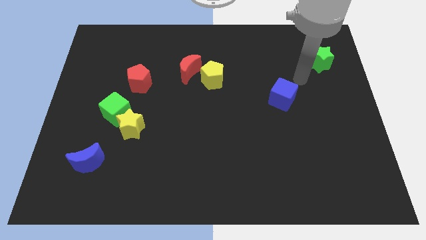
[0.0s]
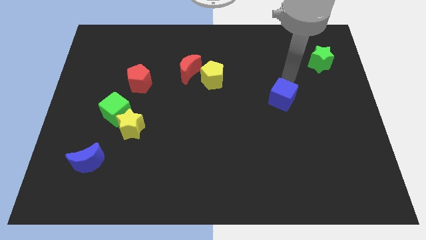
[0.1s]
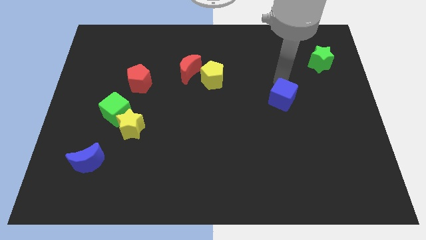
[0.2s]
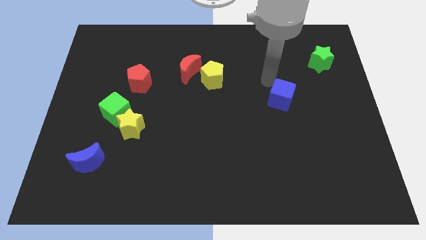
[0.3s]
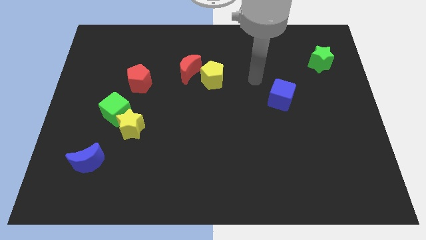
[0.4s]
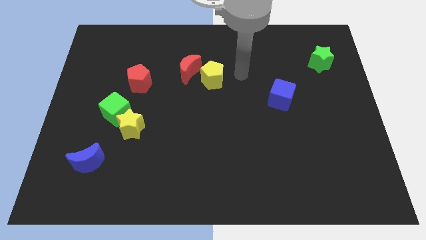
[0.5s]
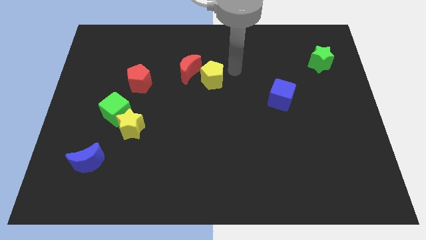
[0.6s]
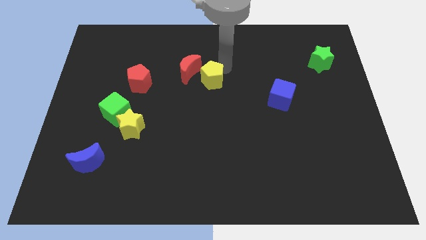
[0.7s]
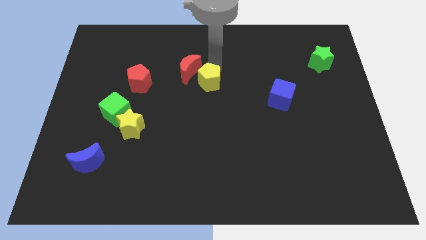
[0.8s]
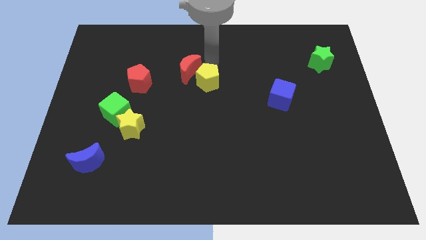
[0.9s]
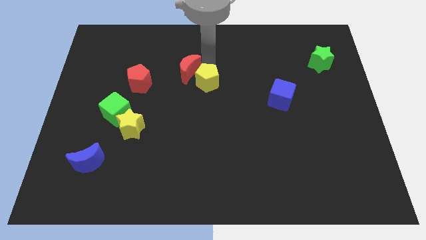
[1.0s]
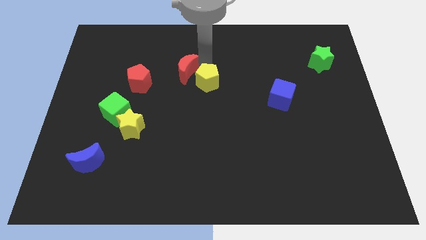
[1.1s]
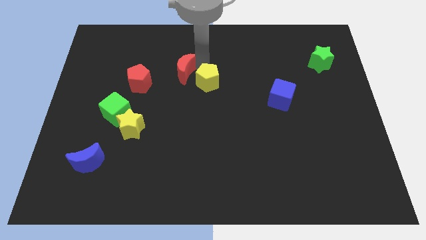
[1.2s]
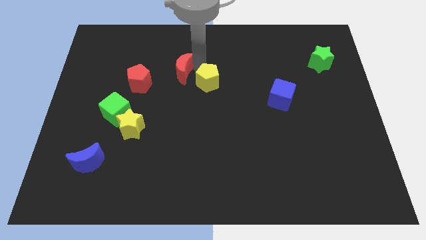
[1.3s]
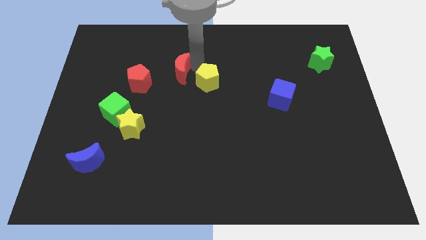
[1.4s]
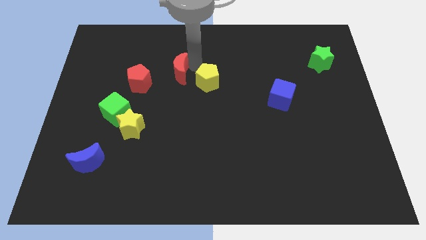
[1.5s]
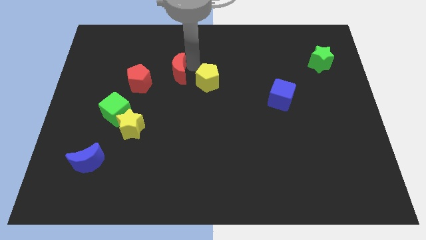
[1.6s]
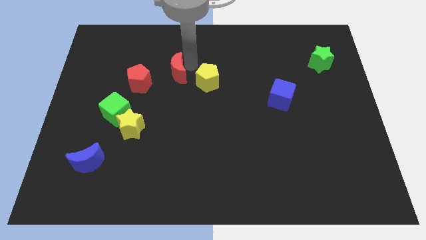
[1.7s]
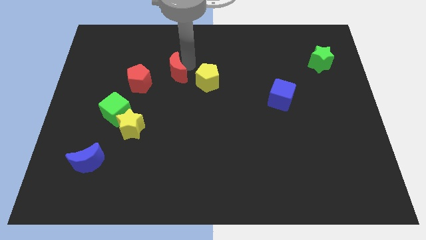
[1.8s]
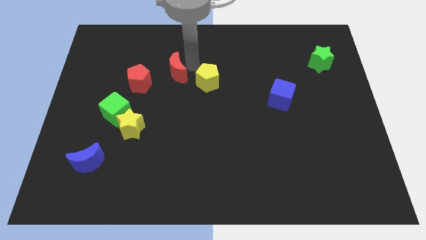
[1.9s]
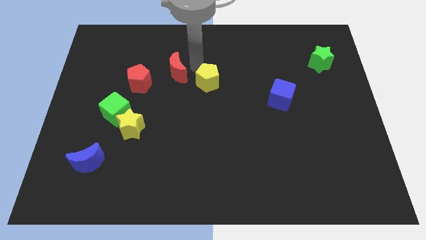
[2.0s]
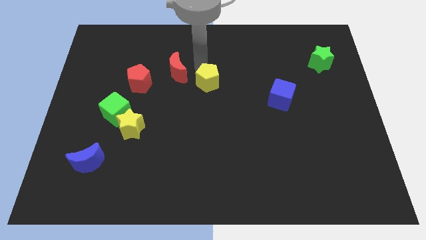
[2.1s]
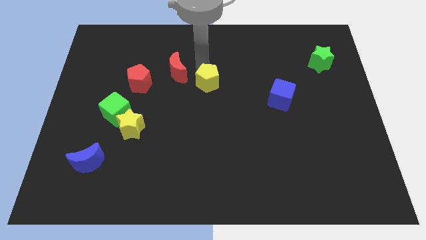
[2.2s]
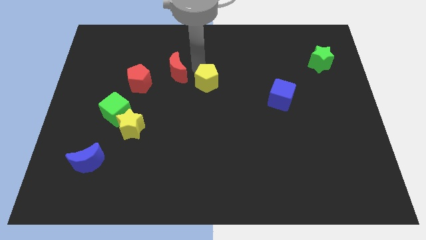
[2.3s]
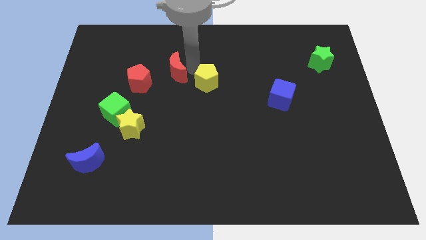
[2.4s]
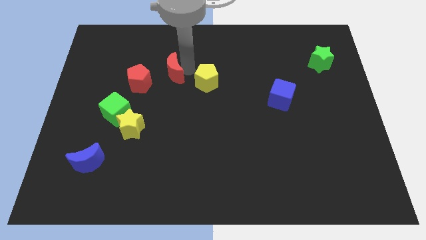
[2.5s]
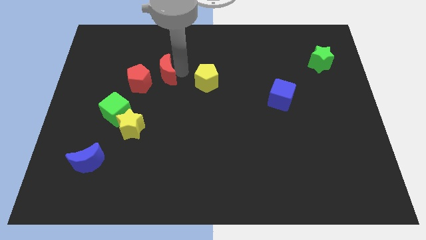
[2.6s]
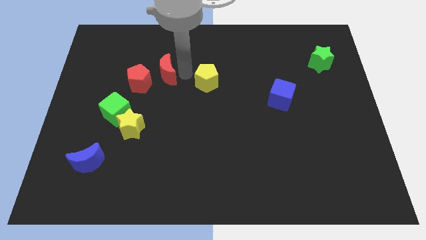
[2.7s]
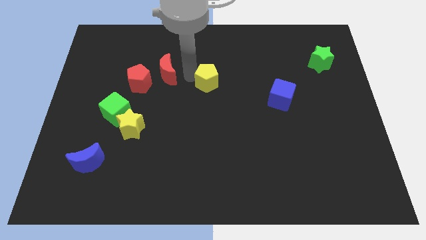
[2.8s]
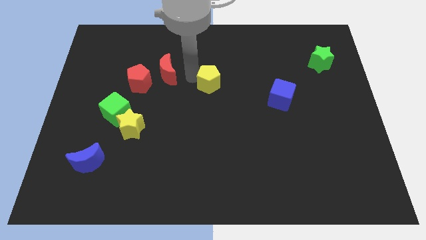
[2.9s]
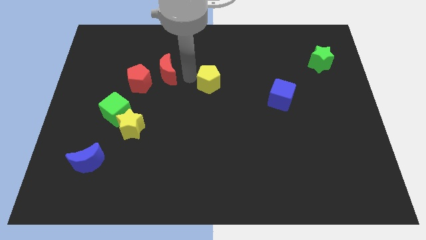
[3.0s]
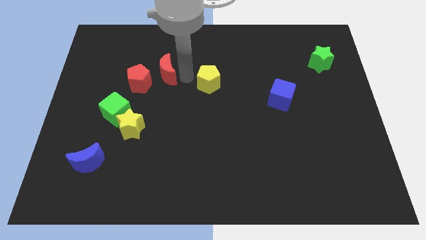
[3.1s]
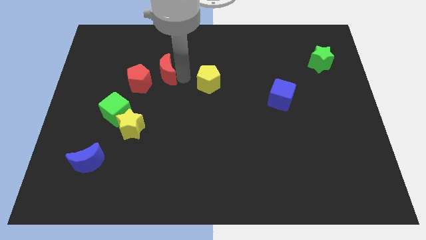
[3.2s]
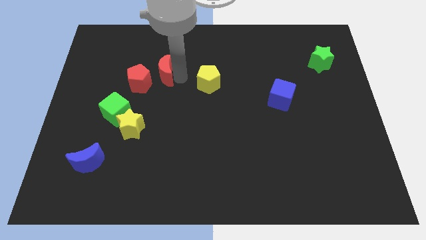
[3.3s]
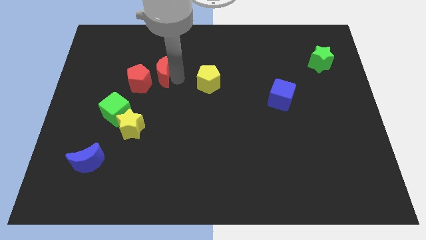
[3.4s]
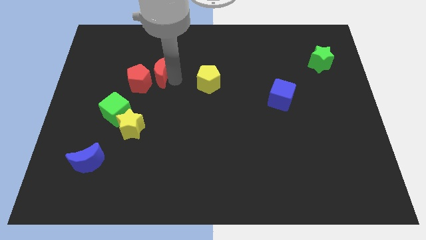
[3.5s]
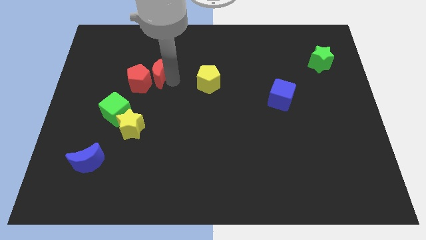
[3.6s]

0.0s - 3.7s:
slide the red moon a bit to the left

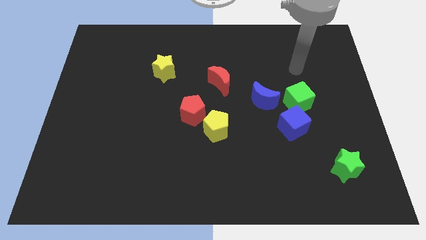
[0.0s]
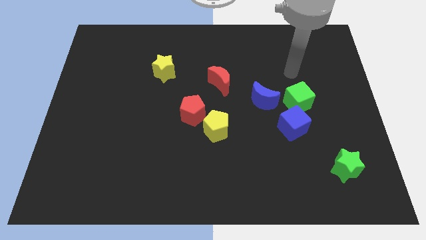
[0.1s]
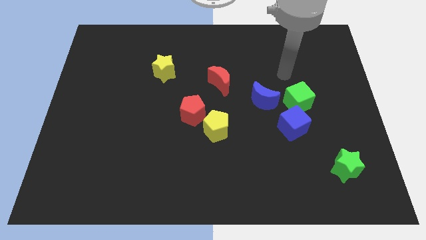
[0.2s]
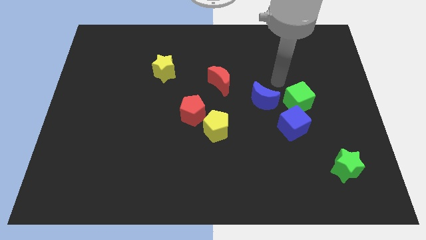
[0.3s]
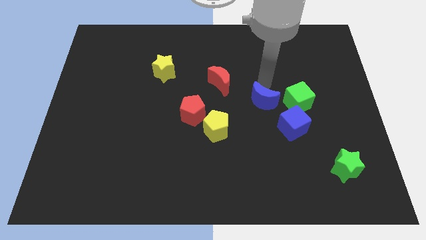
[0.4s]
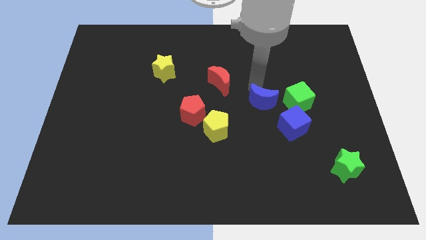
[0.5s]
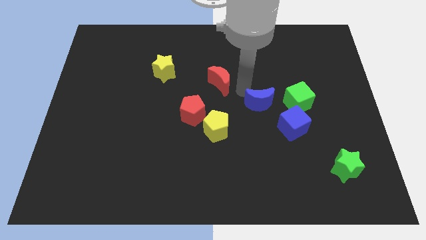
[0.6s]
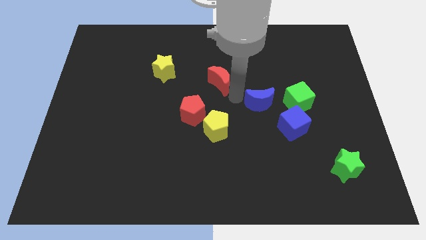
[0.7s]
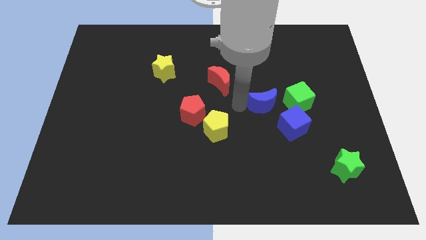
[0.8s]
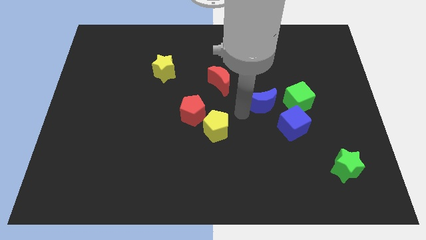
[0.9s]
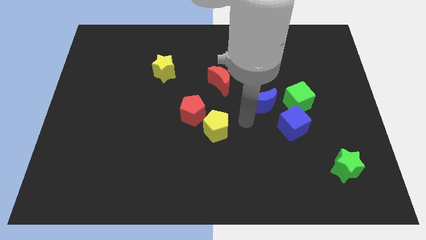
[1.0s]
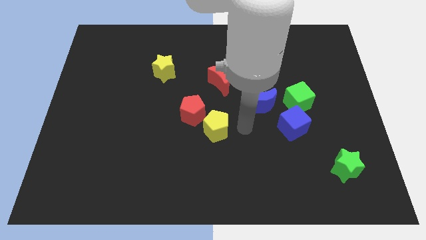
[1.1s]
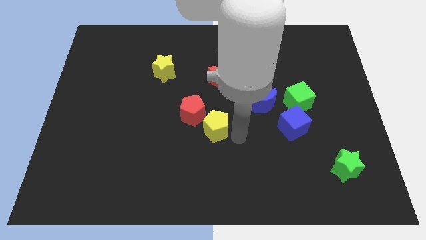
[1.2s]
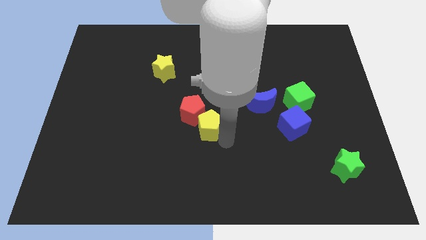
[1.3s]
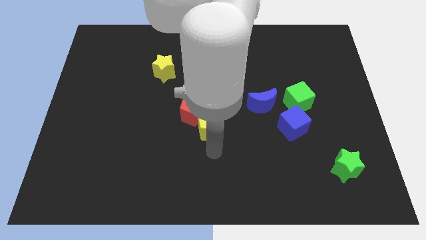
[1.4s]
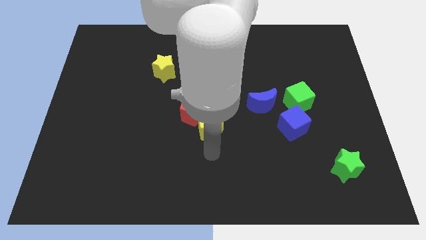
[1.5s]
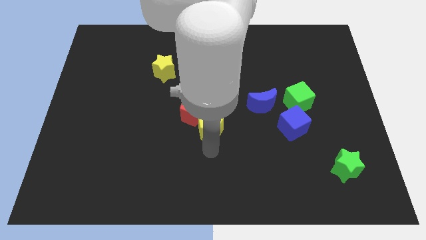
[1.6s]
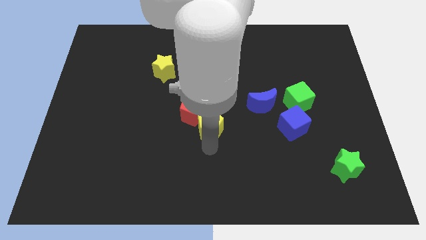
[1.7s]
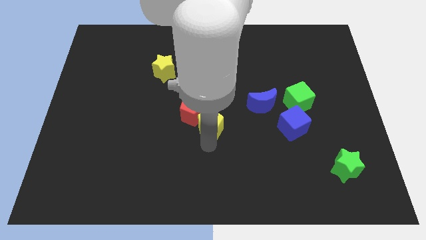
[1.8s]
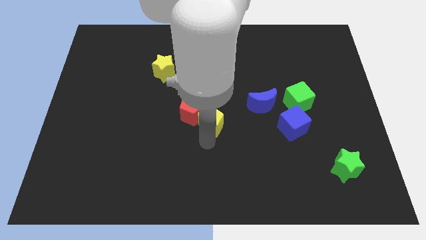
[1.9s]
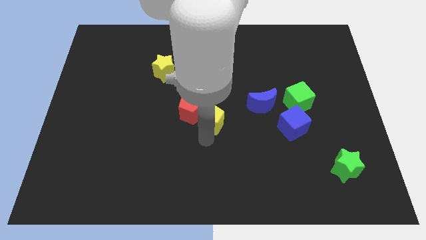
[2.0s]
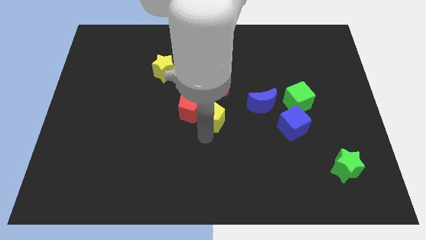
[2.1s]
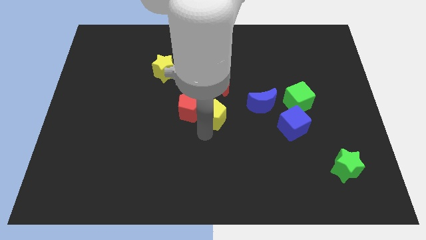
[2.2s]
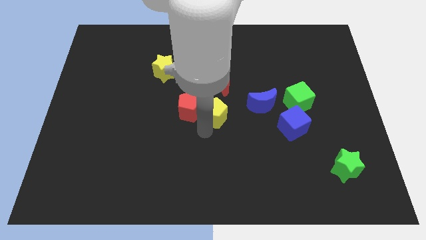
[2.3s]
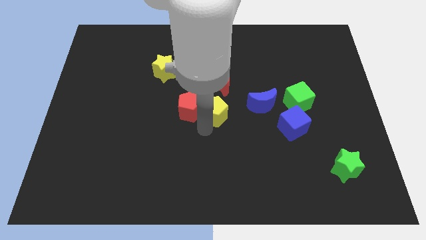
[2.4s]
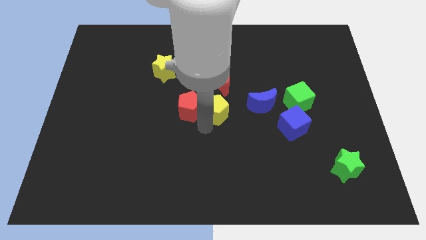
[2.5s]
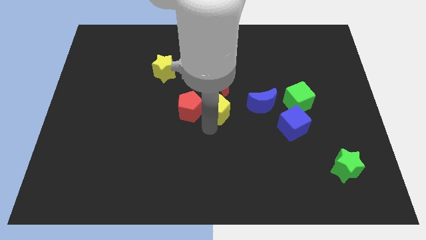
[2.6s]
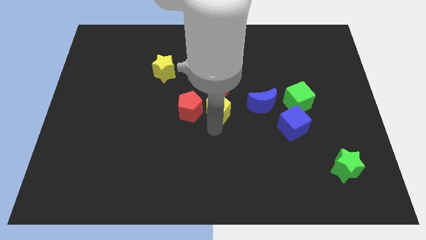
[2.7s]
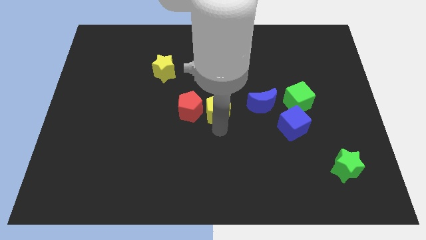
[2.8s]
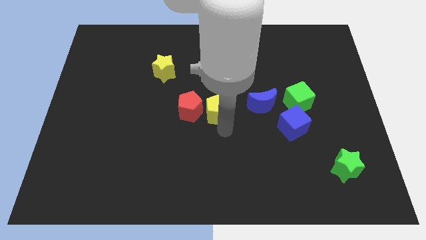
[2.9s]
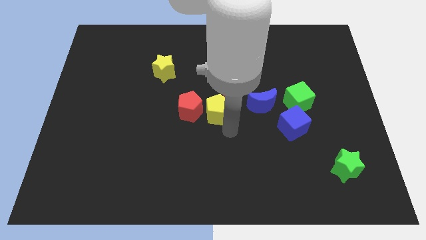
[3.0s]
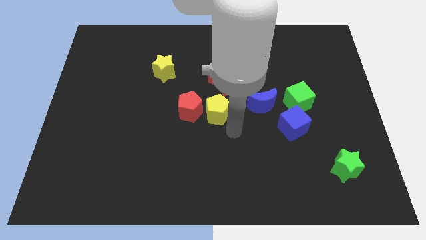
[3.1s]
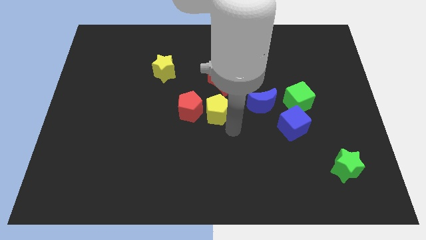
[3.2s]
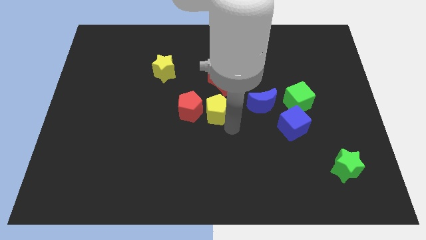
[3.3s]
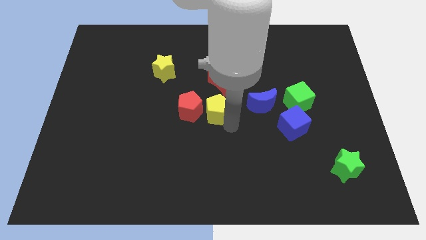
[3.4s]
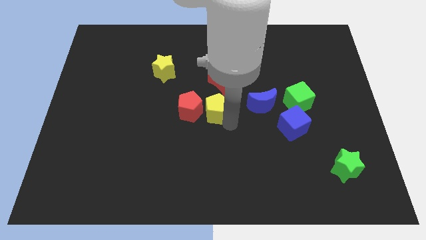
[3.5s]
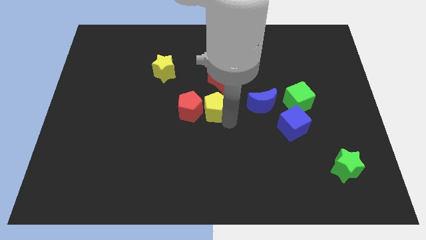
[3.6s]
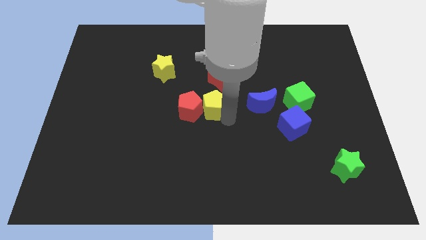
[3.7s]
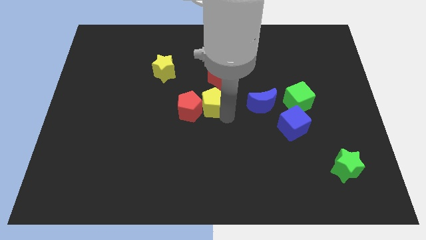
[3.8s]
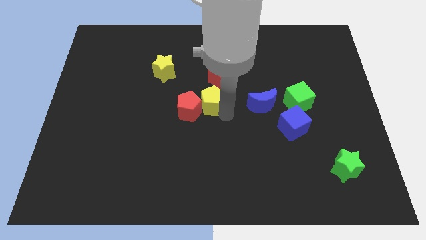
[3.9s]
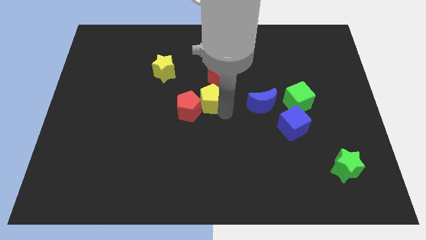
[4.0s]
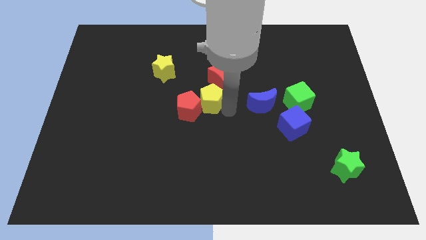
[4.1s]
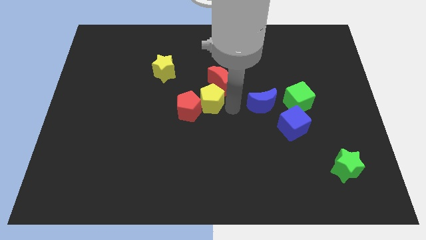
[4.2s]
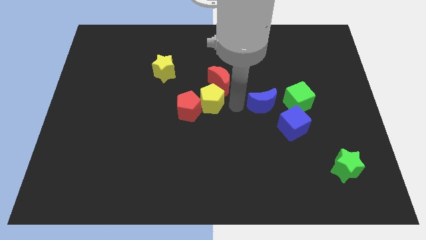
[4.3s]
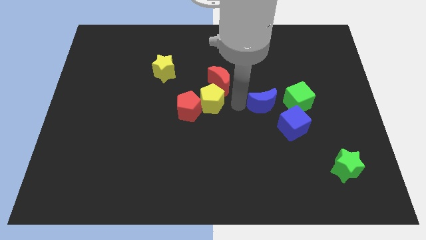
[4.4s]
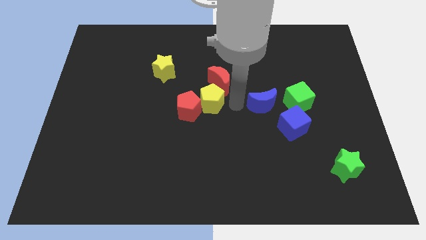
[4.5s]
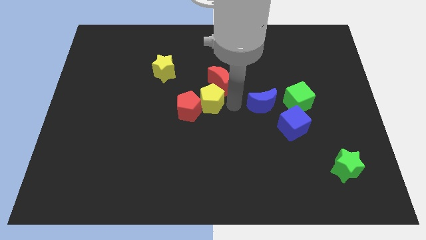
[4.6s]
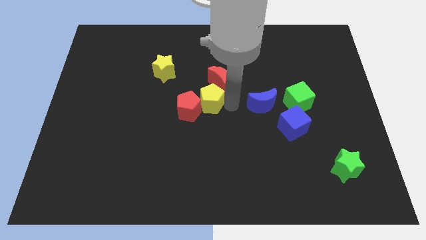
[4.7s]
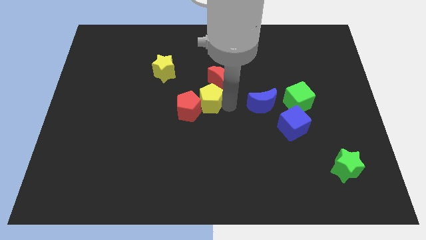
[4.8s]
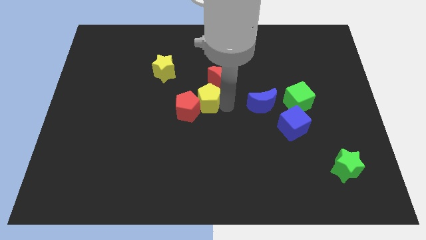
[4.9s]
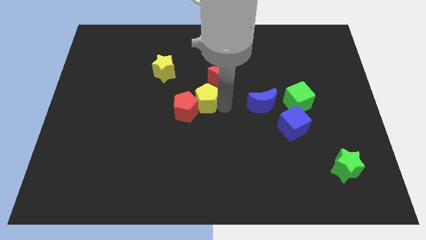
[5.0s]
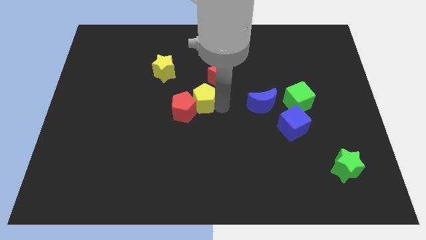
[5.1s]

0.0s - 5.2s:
slide the yellow pentagon slightly up and then to the left
